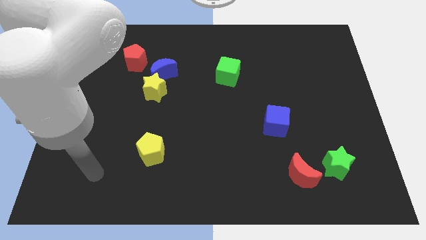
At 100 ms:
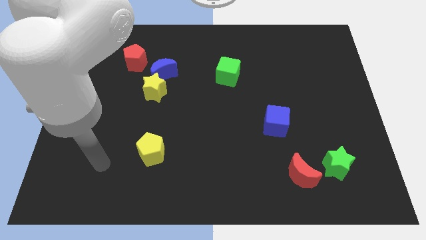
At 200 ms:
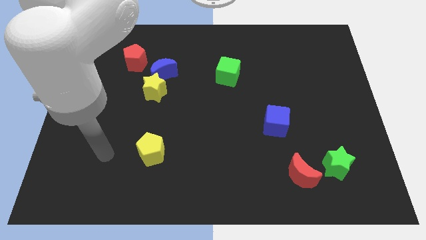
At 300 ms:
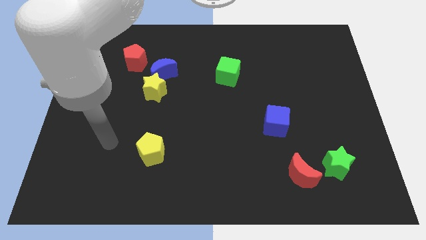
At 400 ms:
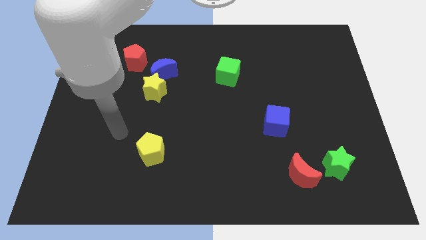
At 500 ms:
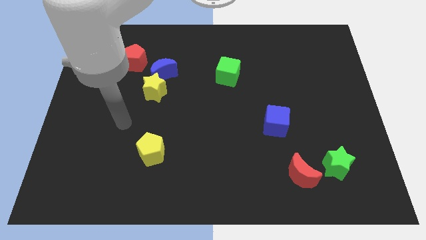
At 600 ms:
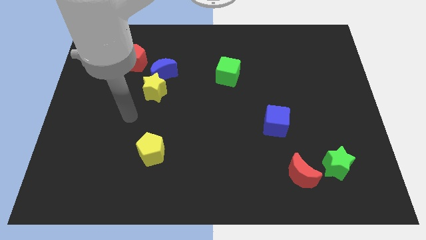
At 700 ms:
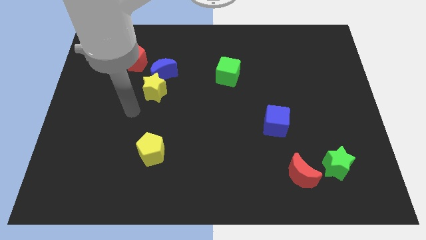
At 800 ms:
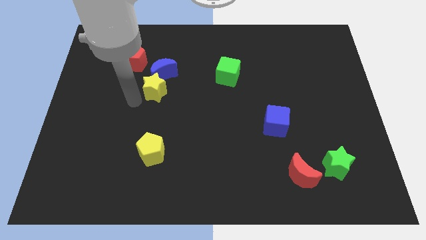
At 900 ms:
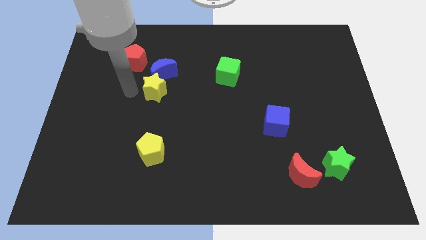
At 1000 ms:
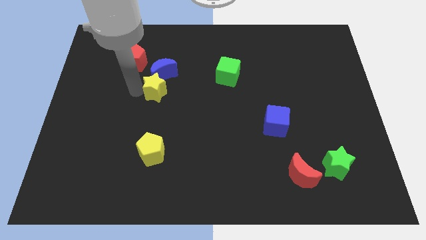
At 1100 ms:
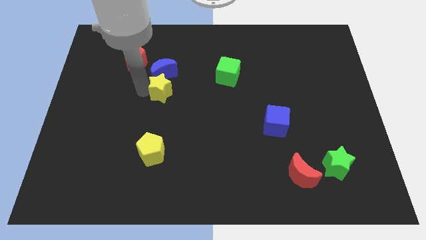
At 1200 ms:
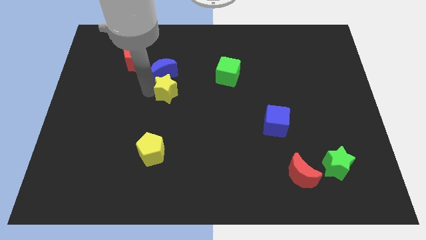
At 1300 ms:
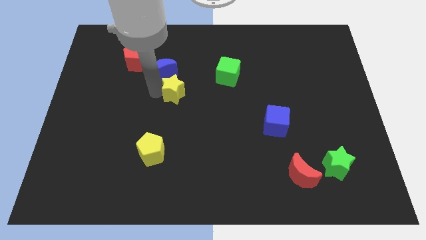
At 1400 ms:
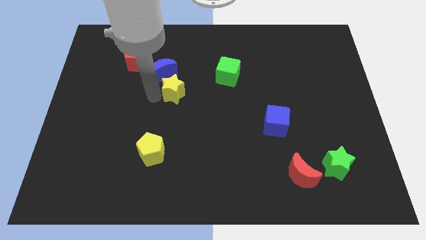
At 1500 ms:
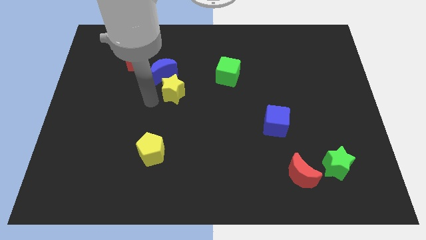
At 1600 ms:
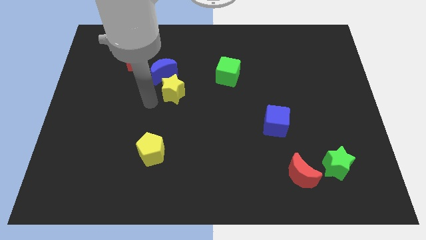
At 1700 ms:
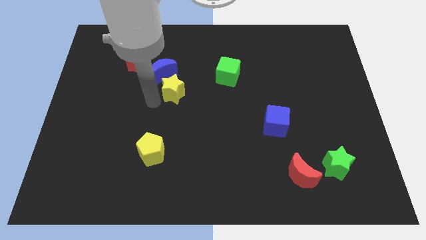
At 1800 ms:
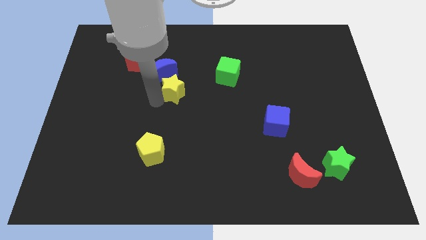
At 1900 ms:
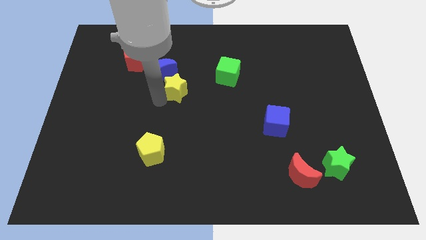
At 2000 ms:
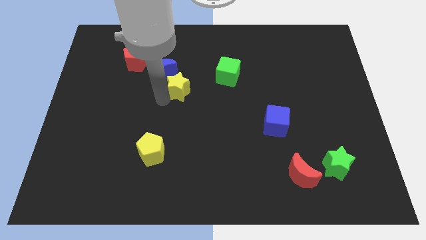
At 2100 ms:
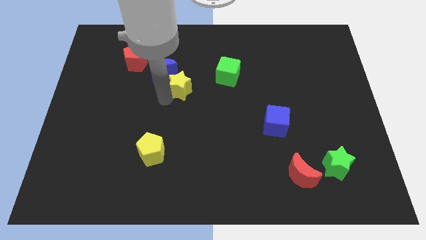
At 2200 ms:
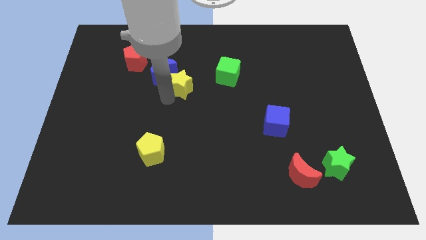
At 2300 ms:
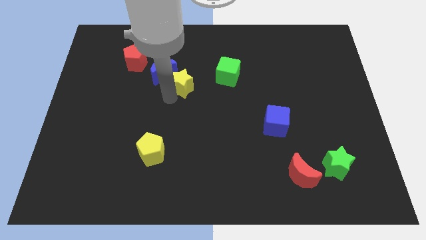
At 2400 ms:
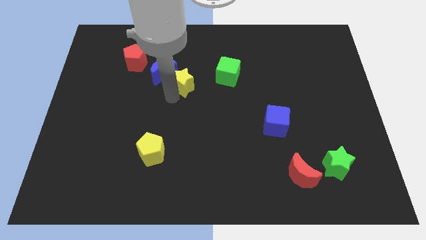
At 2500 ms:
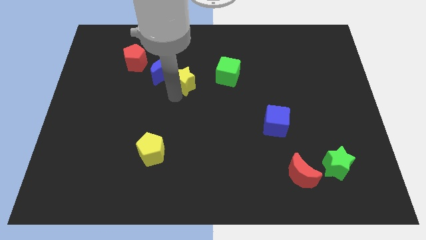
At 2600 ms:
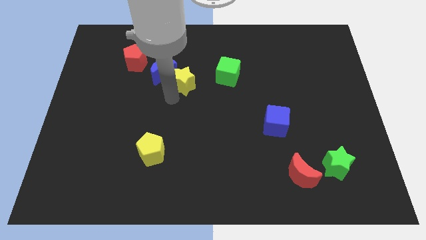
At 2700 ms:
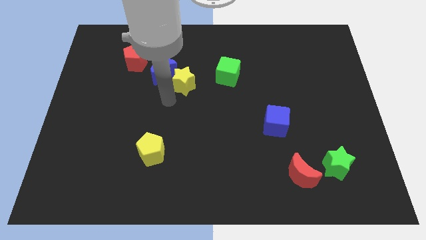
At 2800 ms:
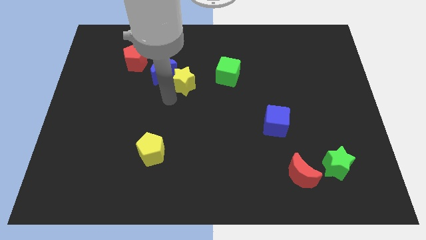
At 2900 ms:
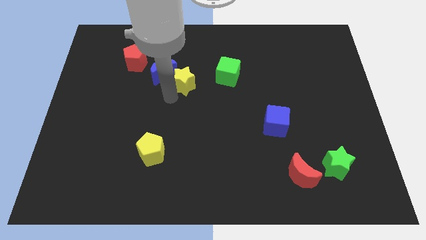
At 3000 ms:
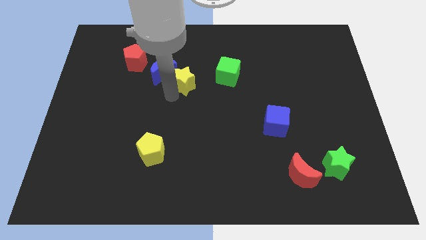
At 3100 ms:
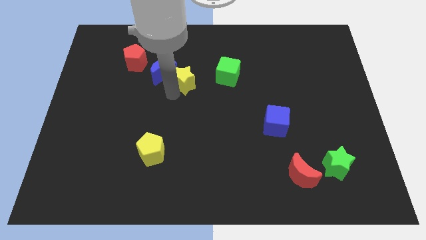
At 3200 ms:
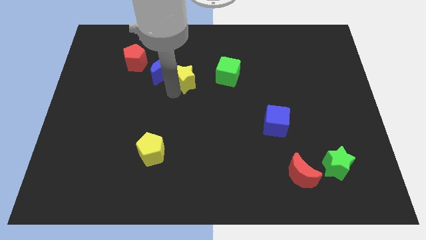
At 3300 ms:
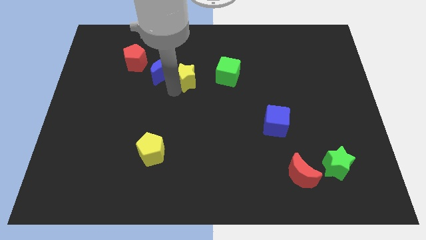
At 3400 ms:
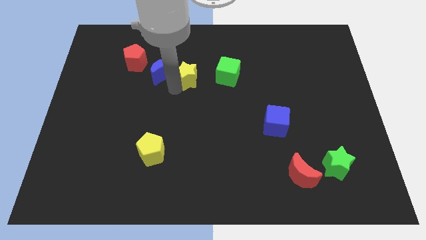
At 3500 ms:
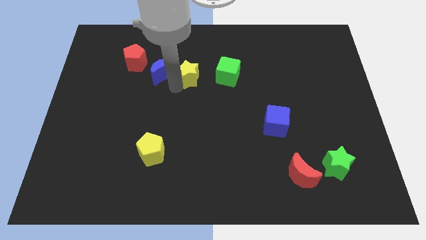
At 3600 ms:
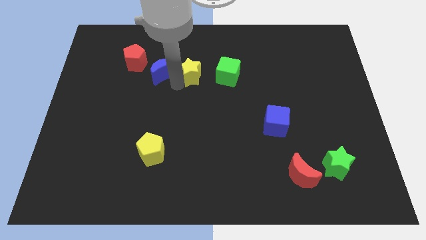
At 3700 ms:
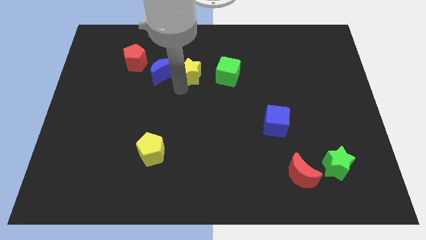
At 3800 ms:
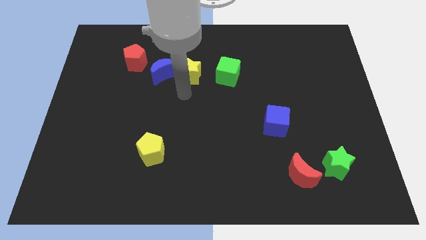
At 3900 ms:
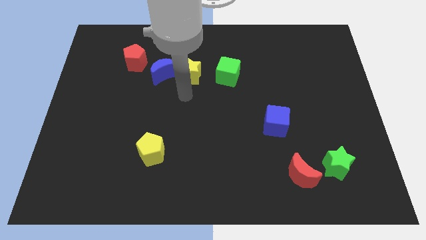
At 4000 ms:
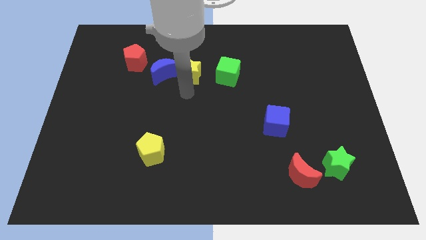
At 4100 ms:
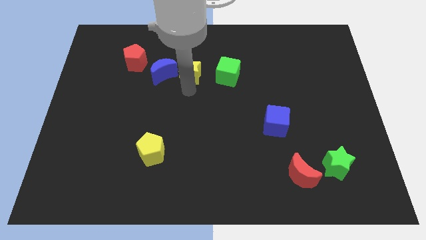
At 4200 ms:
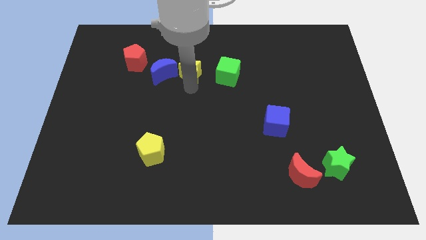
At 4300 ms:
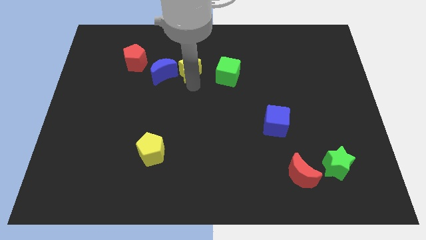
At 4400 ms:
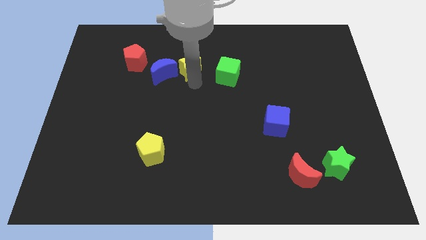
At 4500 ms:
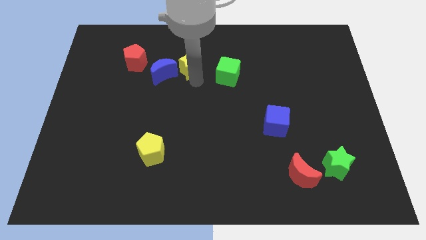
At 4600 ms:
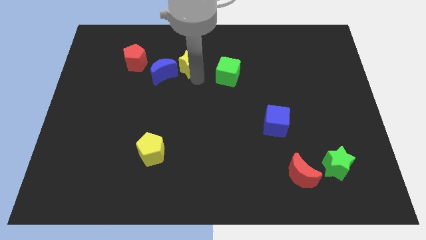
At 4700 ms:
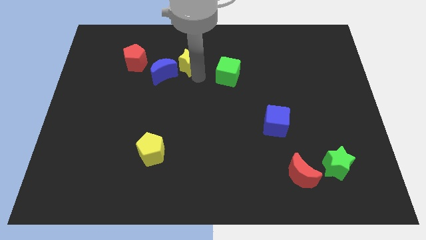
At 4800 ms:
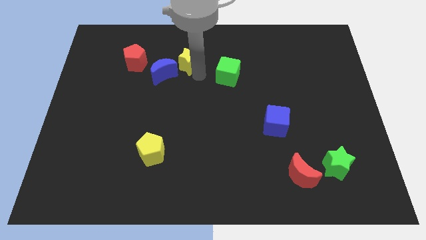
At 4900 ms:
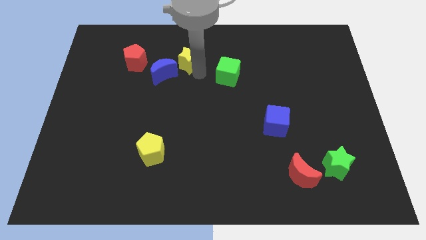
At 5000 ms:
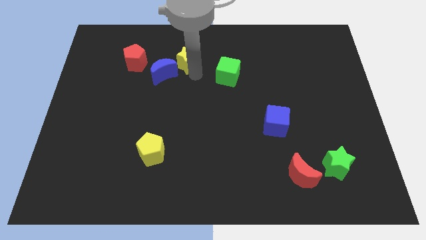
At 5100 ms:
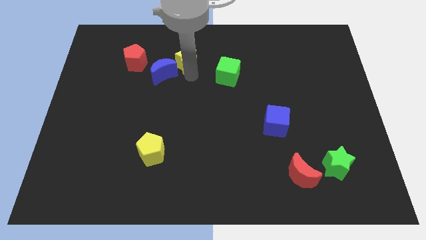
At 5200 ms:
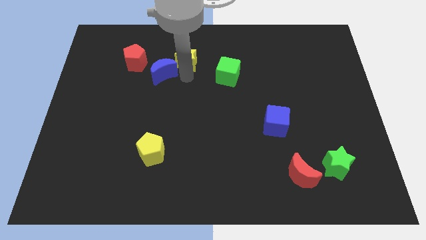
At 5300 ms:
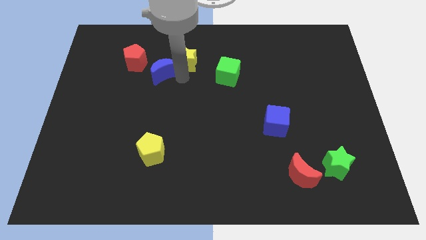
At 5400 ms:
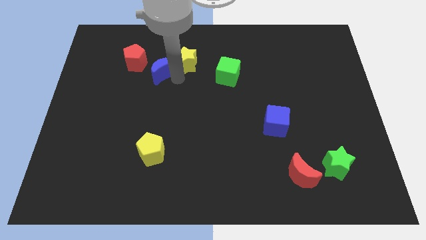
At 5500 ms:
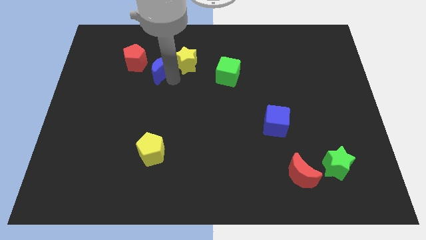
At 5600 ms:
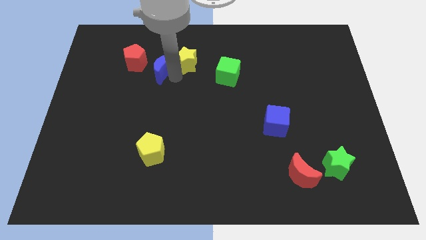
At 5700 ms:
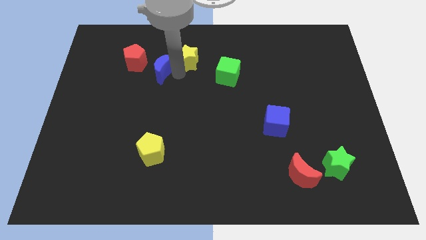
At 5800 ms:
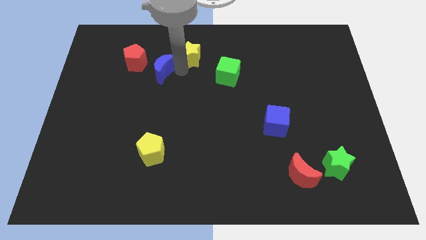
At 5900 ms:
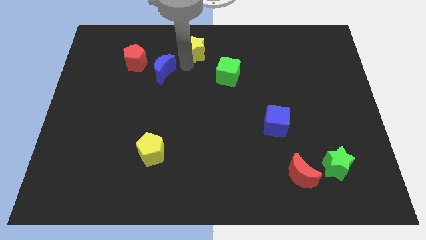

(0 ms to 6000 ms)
slide the yellow star to the top side

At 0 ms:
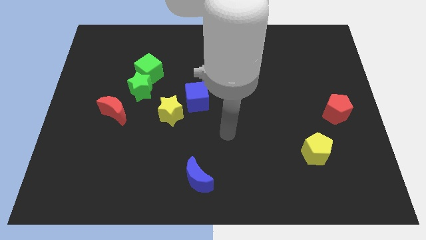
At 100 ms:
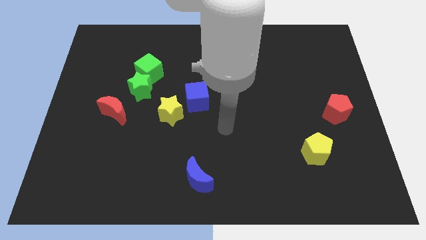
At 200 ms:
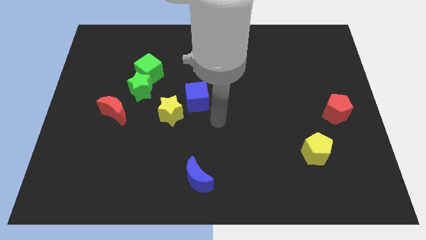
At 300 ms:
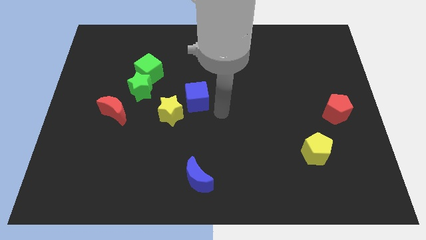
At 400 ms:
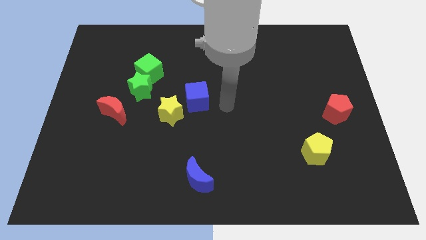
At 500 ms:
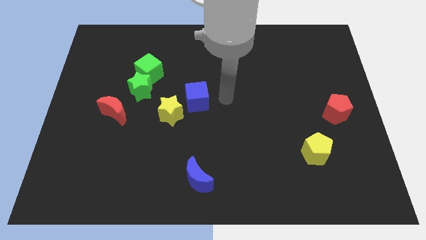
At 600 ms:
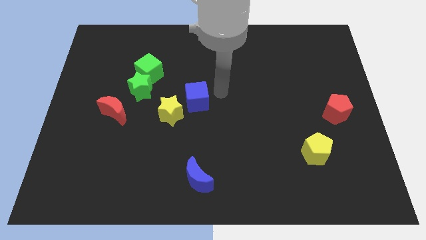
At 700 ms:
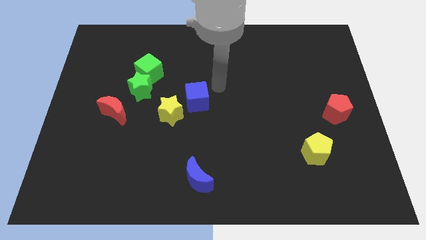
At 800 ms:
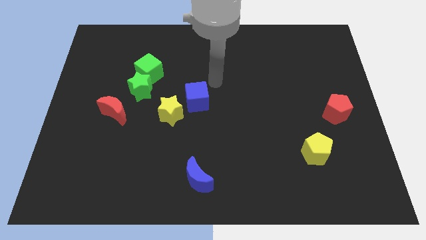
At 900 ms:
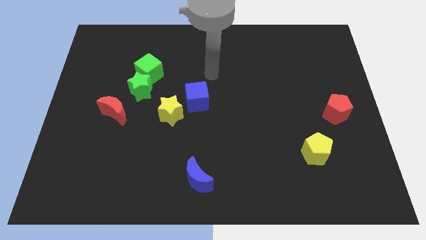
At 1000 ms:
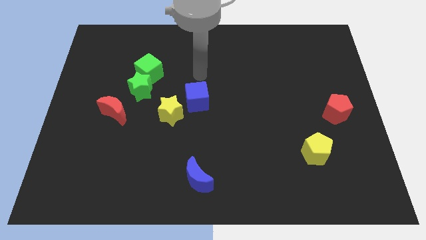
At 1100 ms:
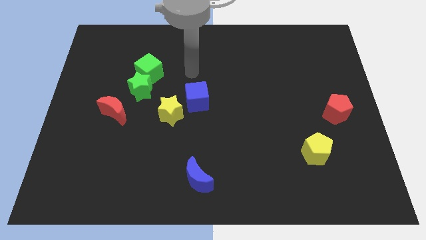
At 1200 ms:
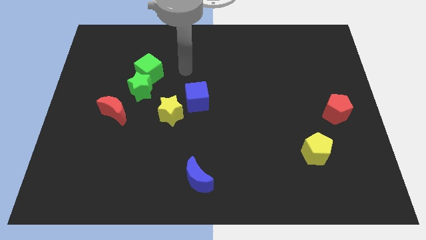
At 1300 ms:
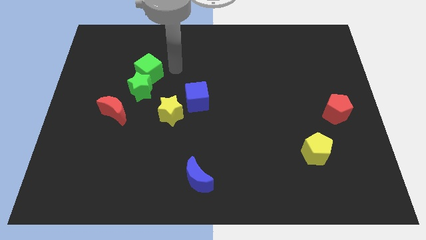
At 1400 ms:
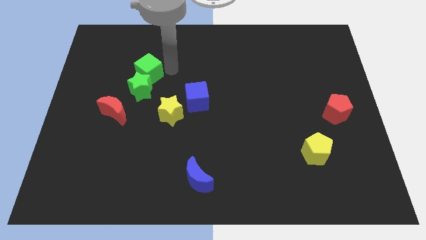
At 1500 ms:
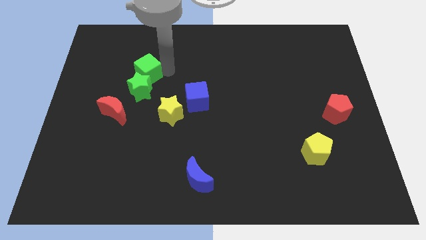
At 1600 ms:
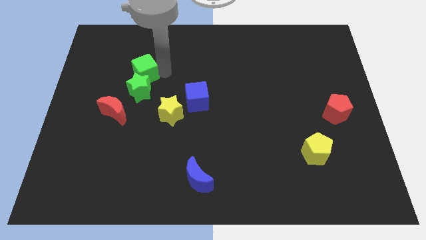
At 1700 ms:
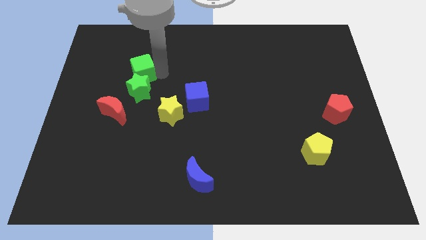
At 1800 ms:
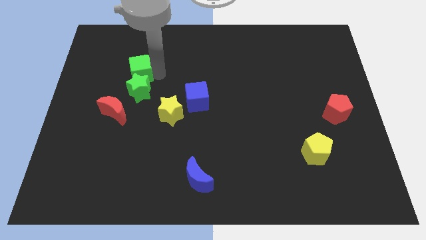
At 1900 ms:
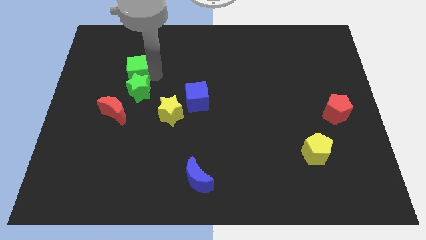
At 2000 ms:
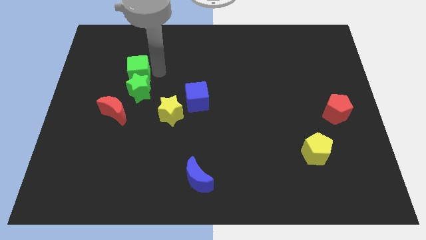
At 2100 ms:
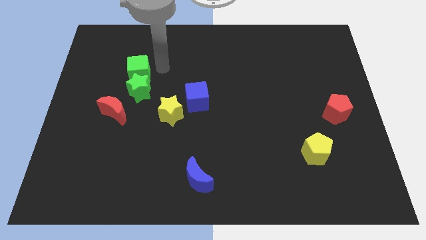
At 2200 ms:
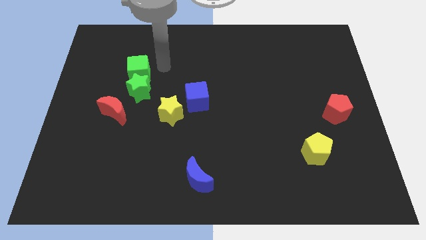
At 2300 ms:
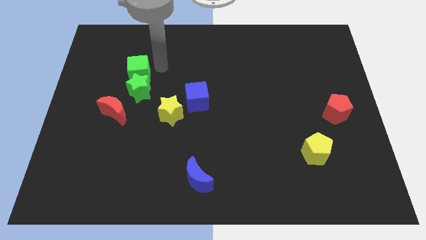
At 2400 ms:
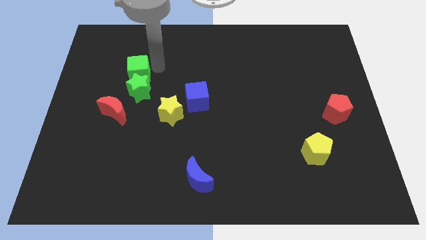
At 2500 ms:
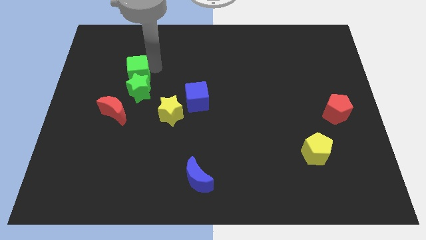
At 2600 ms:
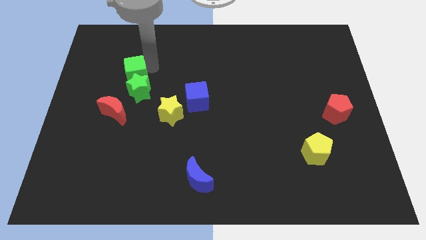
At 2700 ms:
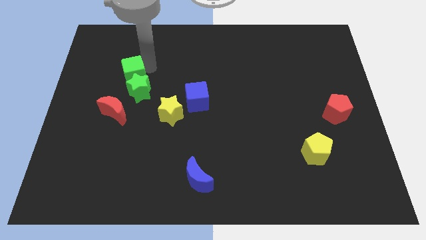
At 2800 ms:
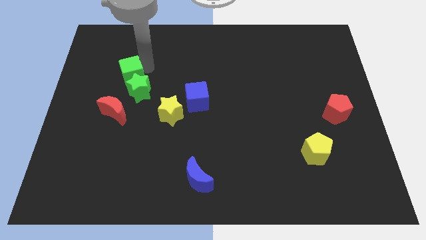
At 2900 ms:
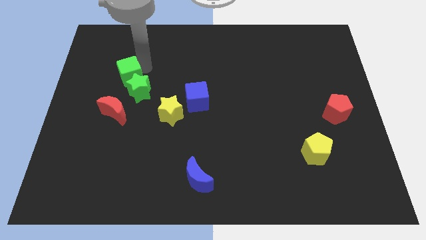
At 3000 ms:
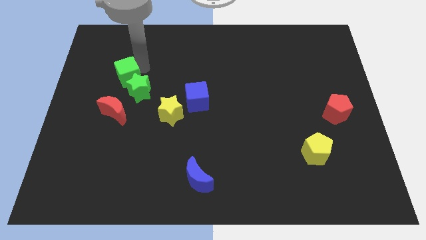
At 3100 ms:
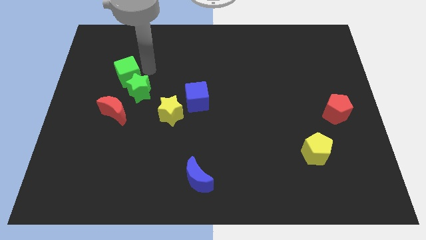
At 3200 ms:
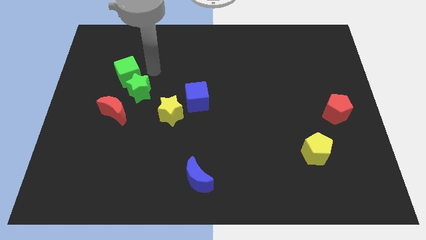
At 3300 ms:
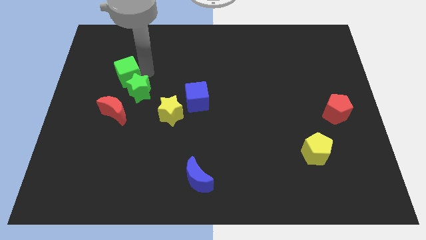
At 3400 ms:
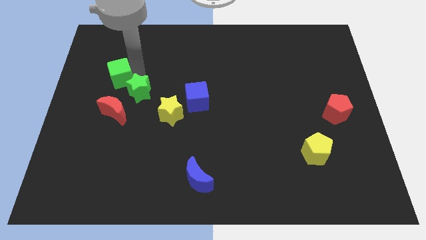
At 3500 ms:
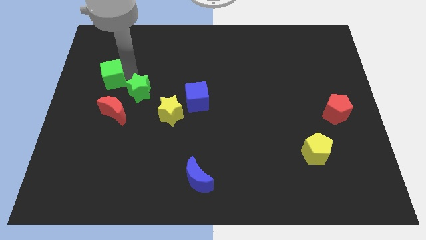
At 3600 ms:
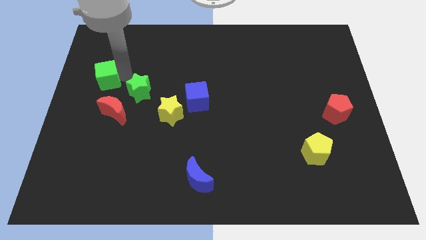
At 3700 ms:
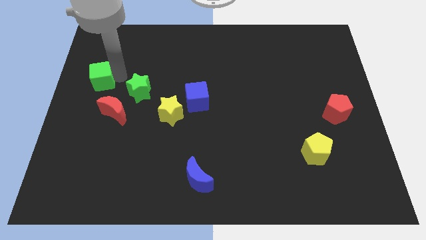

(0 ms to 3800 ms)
put the green cube to the center left
